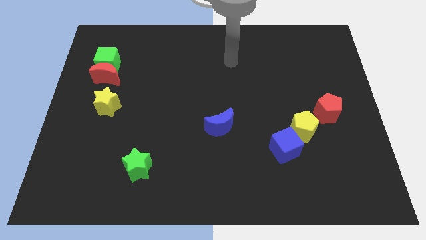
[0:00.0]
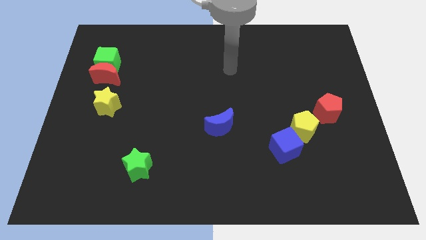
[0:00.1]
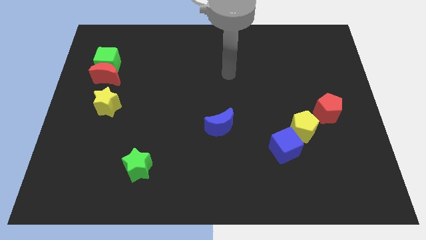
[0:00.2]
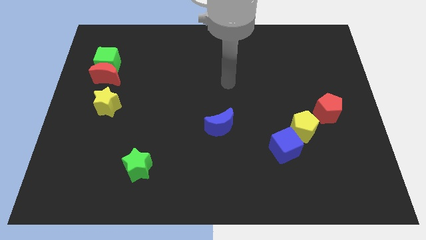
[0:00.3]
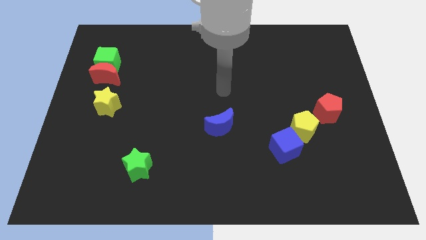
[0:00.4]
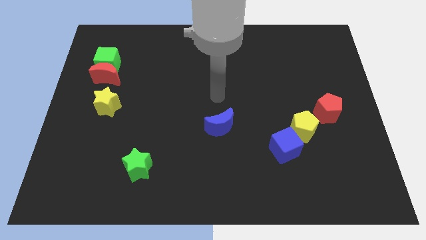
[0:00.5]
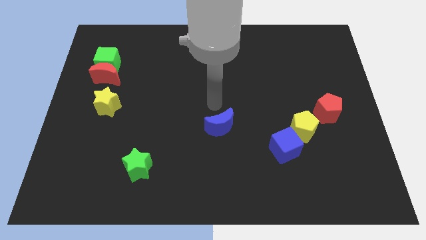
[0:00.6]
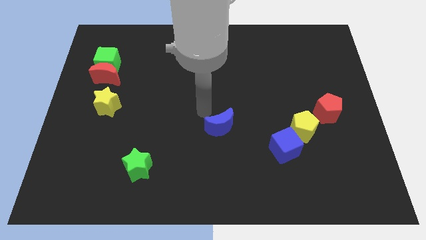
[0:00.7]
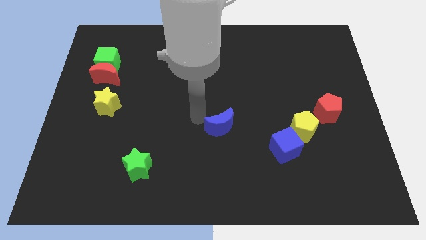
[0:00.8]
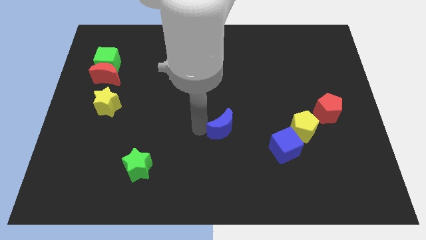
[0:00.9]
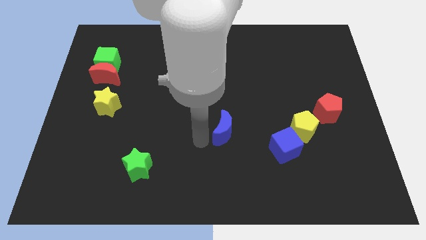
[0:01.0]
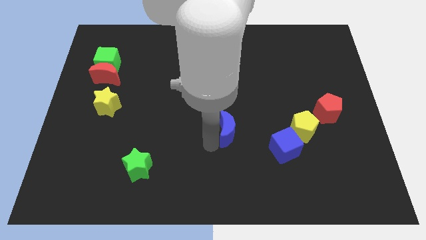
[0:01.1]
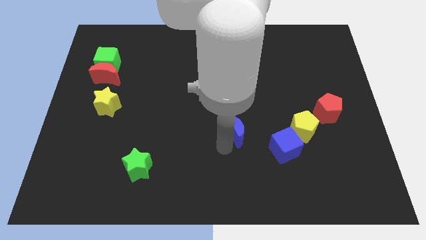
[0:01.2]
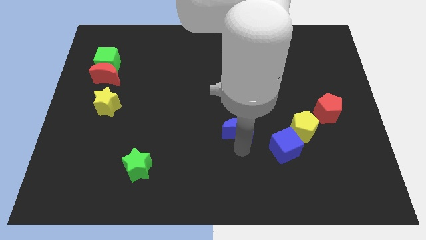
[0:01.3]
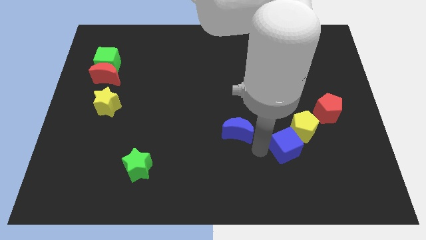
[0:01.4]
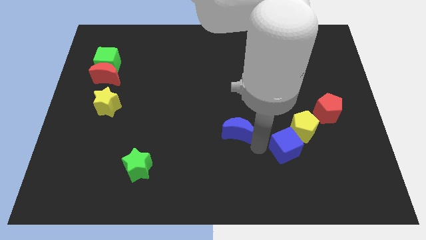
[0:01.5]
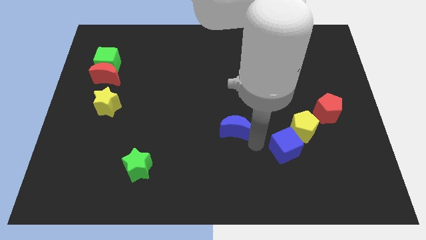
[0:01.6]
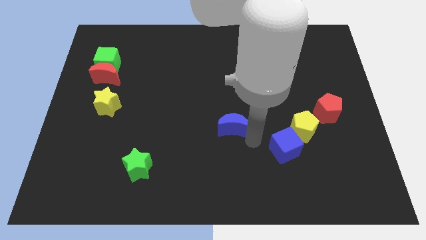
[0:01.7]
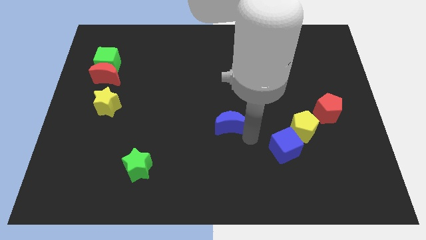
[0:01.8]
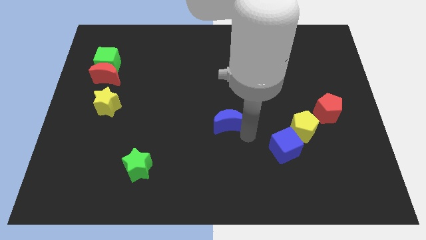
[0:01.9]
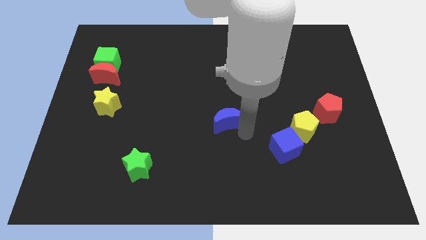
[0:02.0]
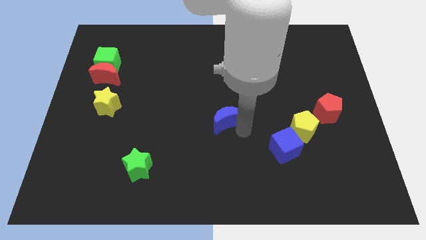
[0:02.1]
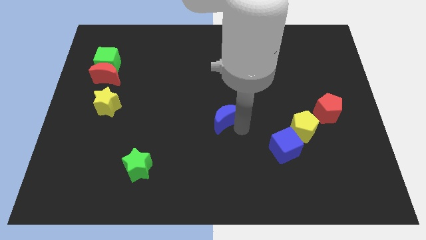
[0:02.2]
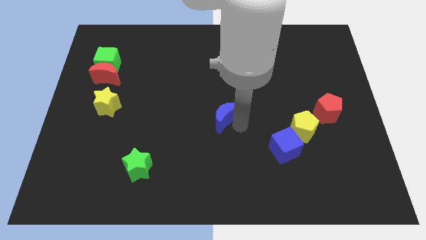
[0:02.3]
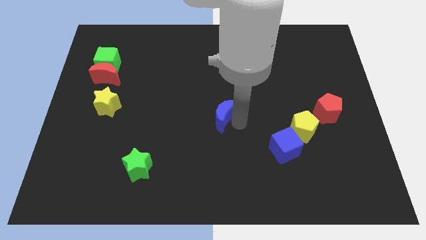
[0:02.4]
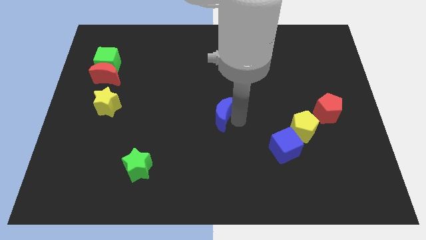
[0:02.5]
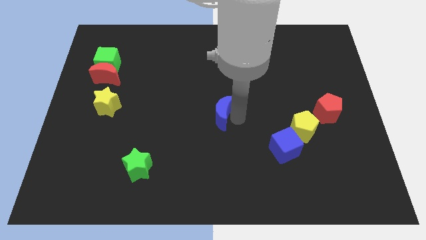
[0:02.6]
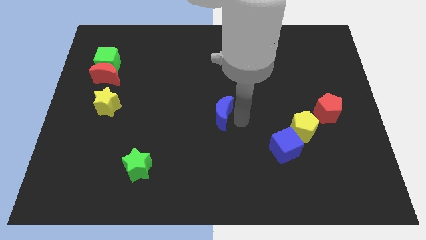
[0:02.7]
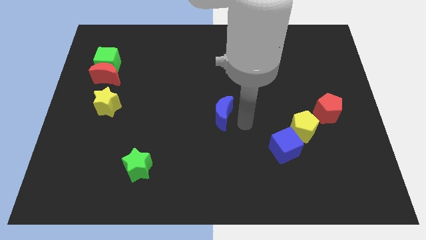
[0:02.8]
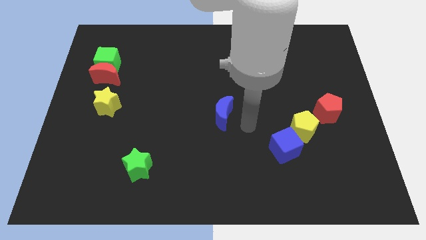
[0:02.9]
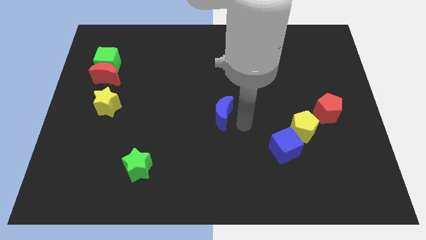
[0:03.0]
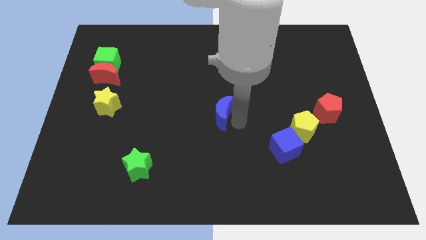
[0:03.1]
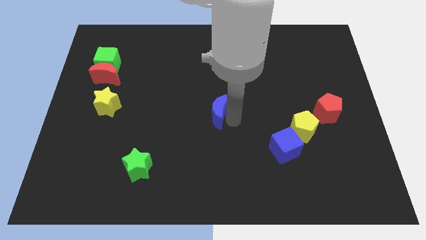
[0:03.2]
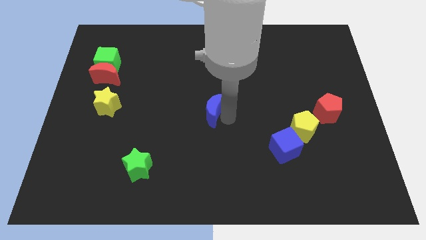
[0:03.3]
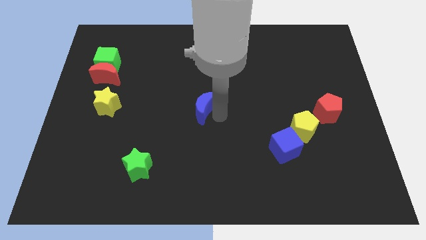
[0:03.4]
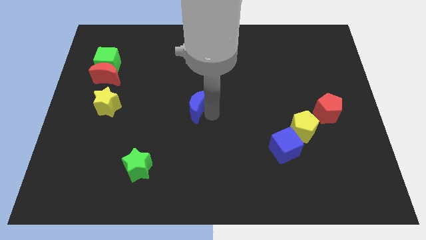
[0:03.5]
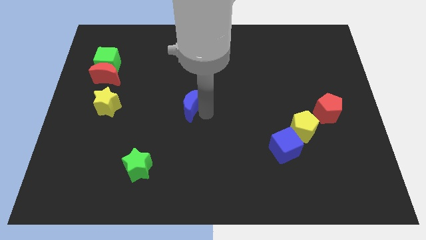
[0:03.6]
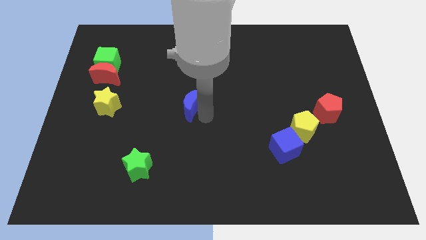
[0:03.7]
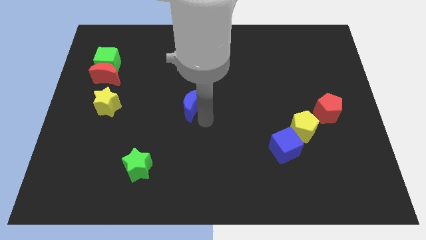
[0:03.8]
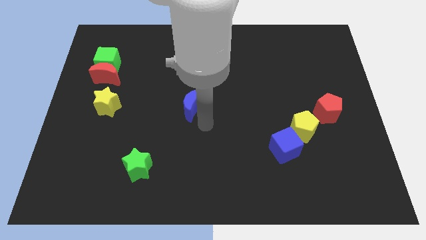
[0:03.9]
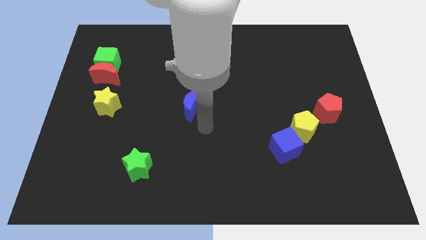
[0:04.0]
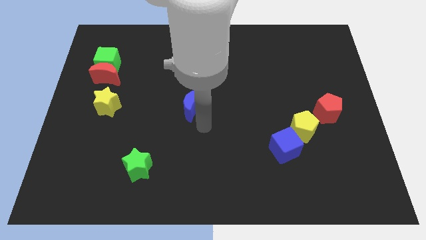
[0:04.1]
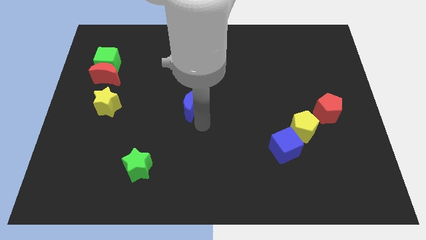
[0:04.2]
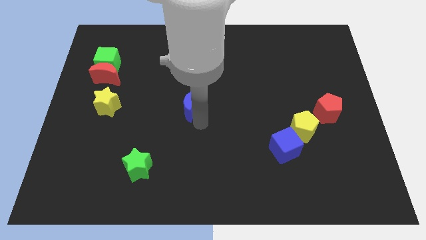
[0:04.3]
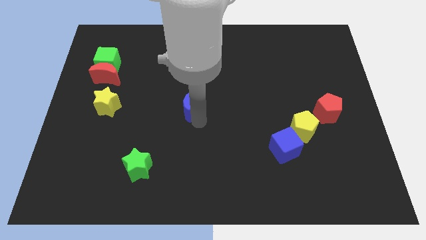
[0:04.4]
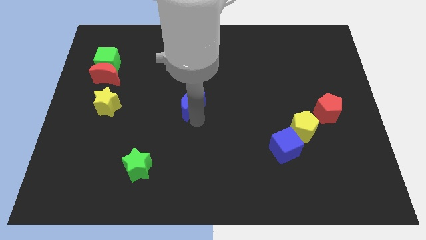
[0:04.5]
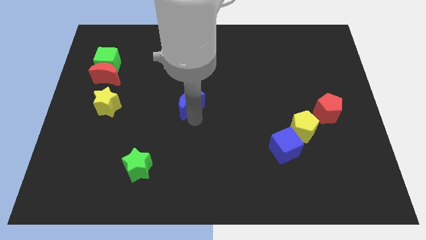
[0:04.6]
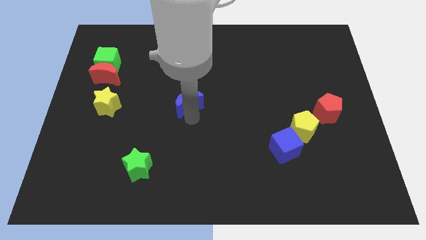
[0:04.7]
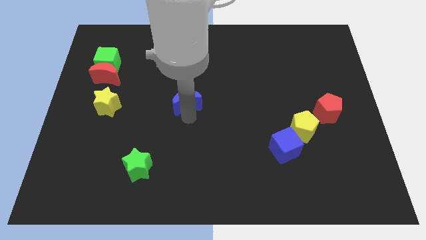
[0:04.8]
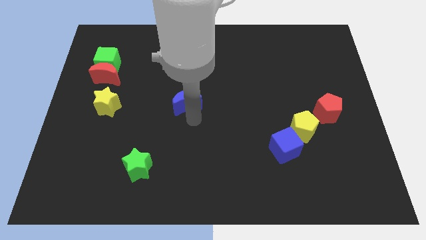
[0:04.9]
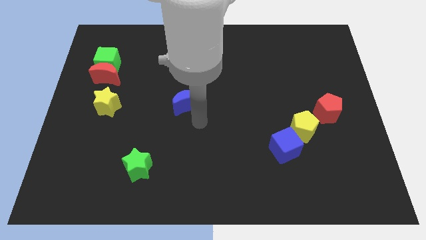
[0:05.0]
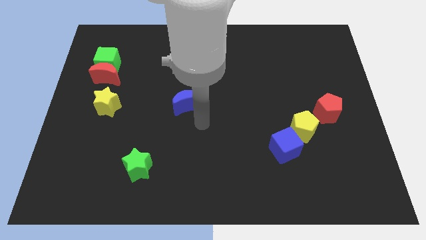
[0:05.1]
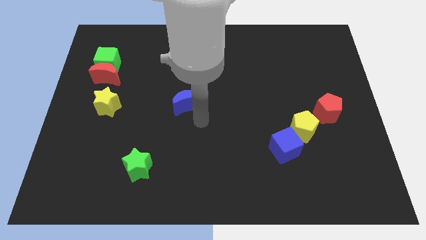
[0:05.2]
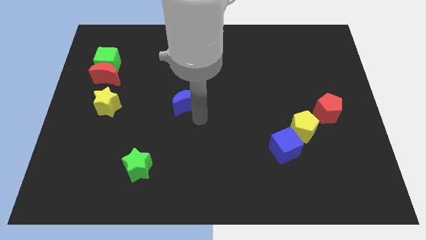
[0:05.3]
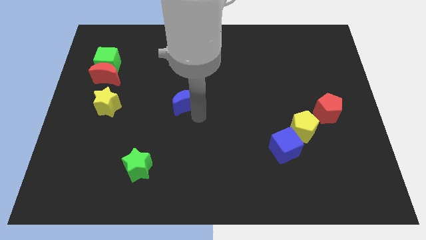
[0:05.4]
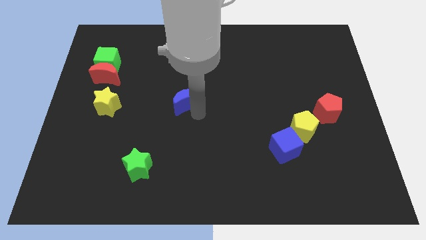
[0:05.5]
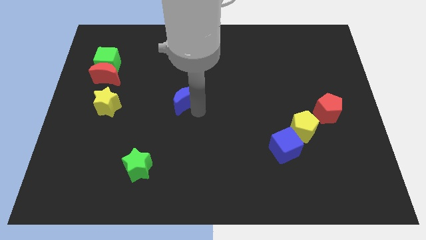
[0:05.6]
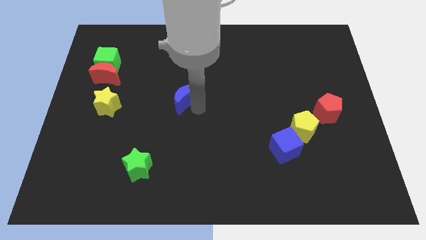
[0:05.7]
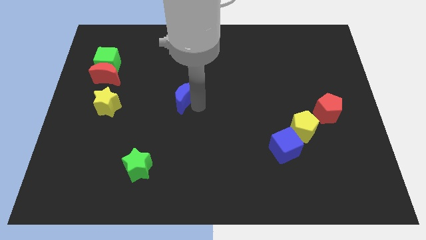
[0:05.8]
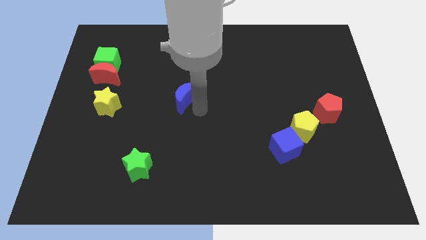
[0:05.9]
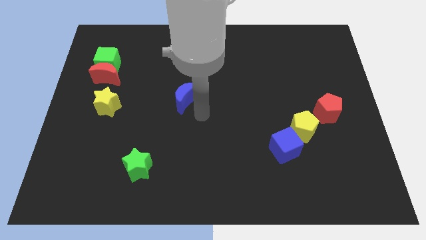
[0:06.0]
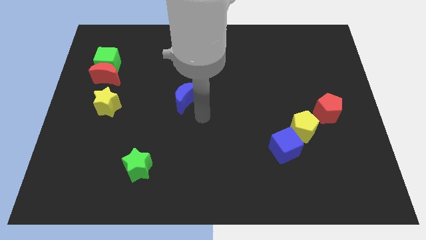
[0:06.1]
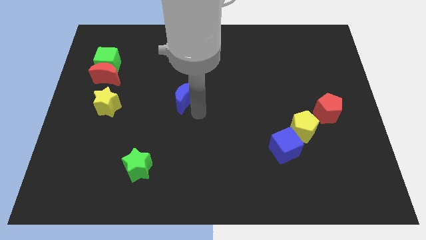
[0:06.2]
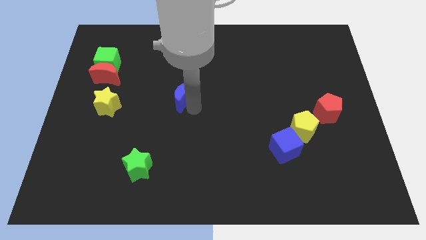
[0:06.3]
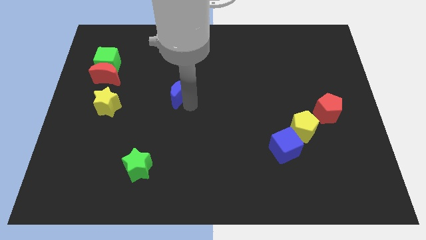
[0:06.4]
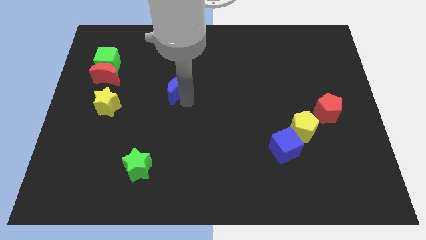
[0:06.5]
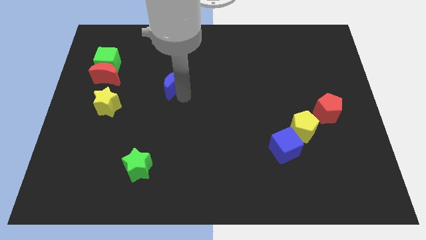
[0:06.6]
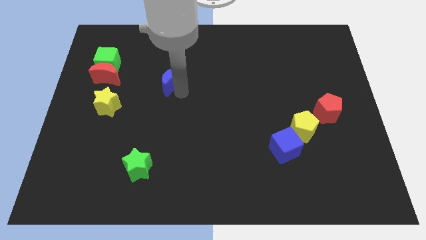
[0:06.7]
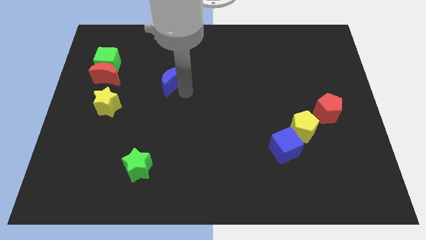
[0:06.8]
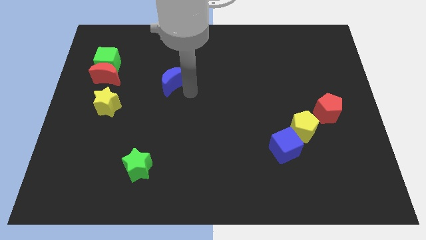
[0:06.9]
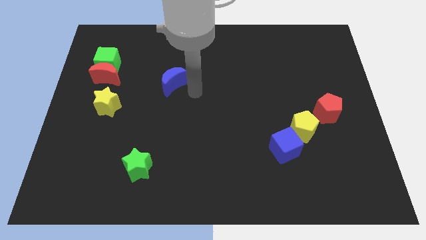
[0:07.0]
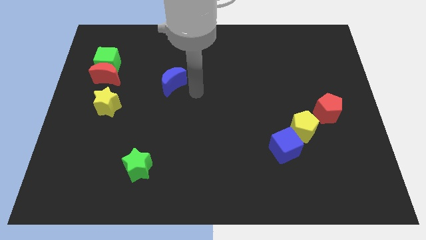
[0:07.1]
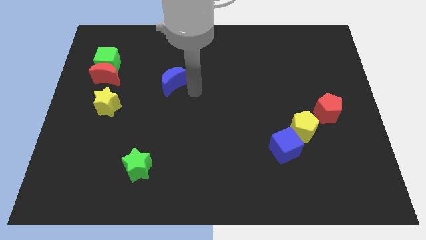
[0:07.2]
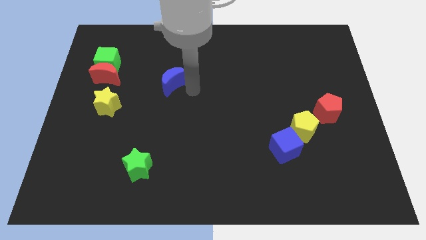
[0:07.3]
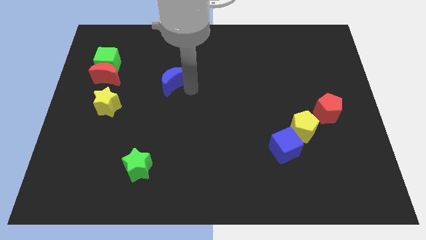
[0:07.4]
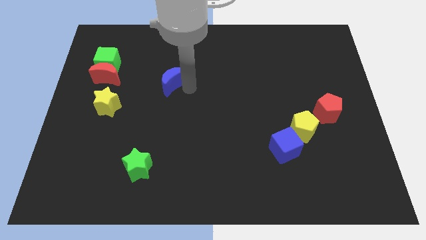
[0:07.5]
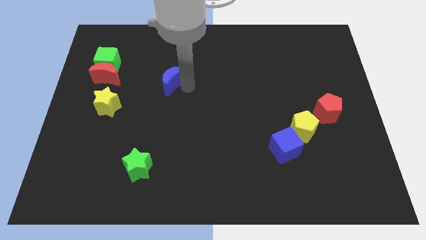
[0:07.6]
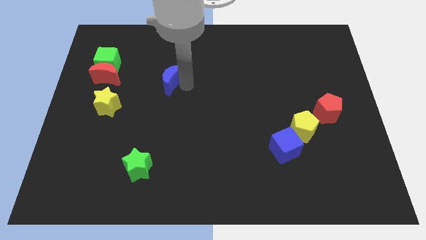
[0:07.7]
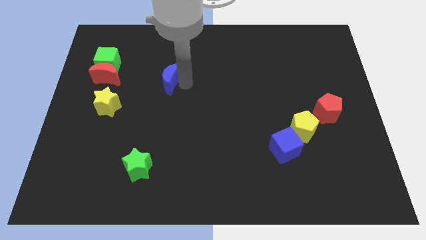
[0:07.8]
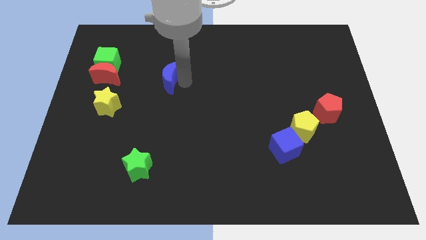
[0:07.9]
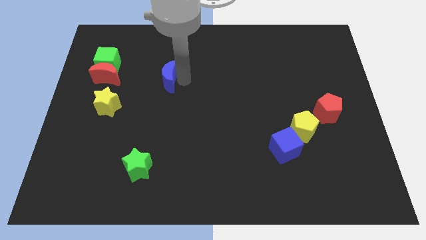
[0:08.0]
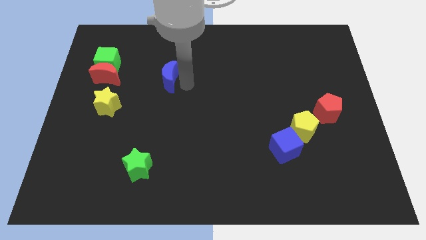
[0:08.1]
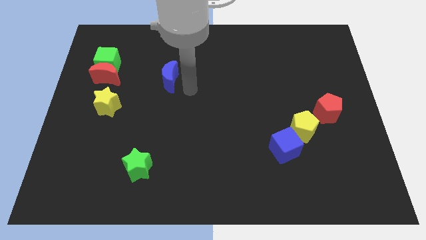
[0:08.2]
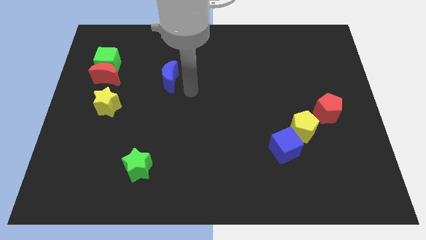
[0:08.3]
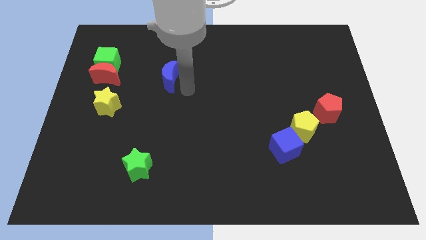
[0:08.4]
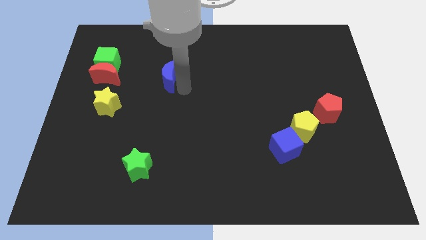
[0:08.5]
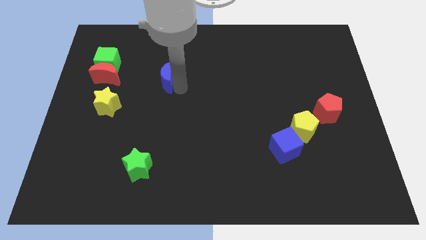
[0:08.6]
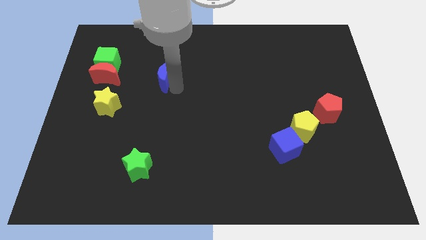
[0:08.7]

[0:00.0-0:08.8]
slide the blue moon upwards and left diagonally
